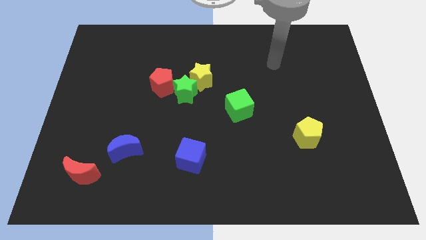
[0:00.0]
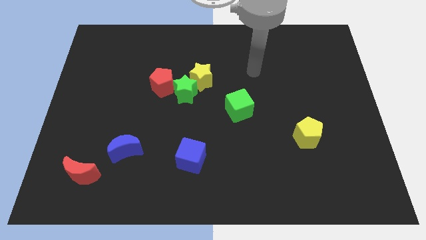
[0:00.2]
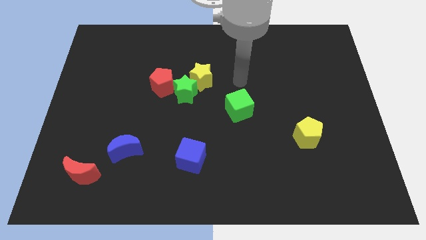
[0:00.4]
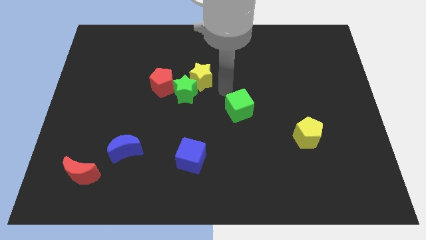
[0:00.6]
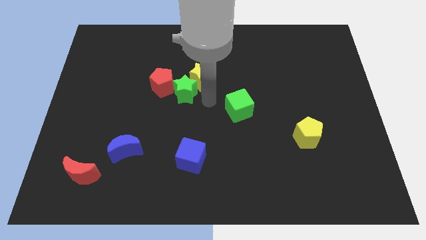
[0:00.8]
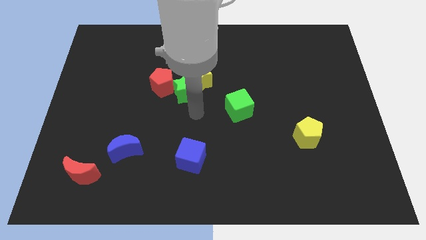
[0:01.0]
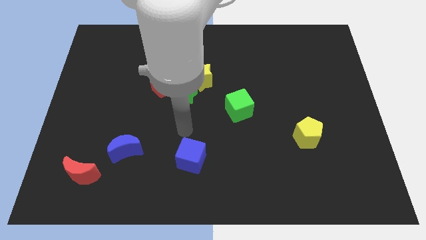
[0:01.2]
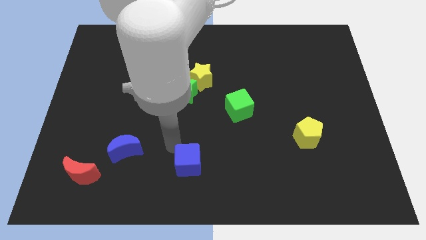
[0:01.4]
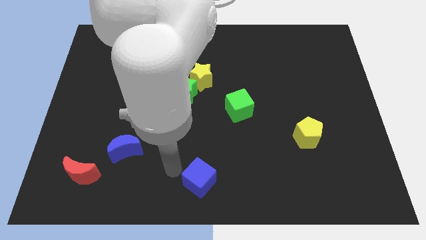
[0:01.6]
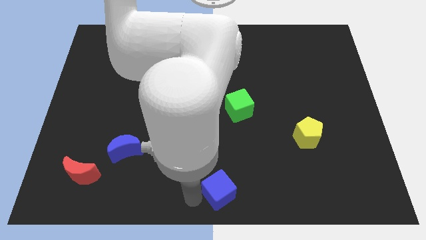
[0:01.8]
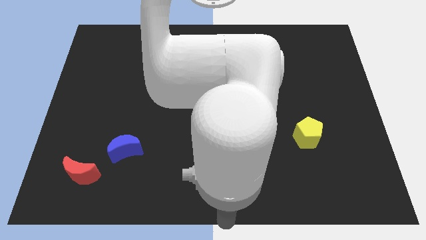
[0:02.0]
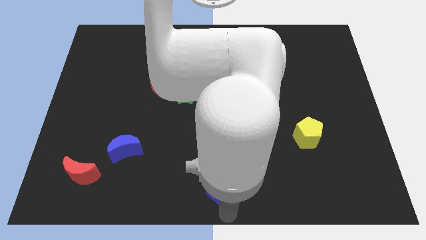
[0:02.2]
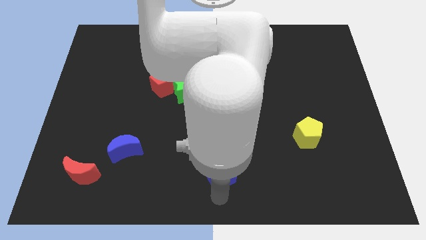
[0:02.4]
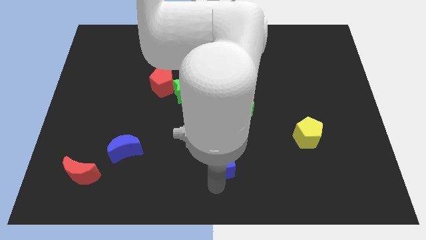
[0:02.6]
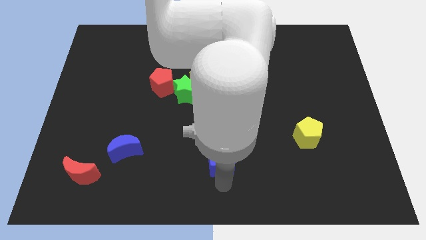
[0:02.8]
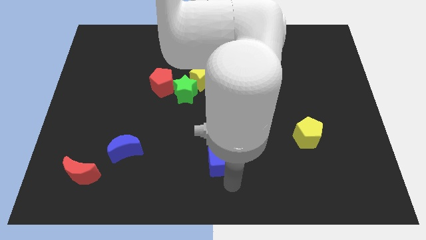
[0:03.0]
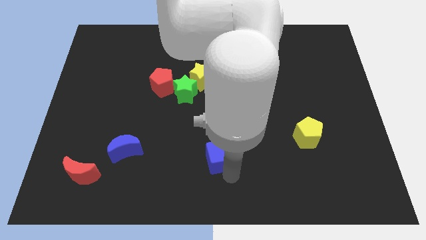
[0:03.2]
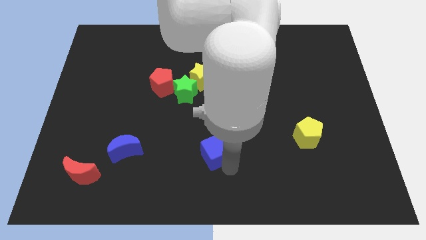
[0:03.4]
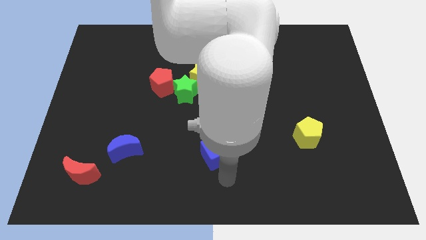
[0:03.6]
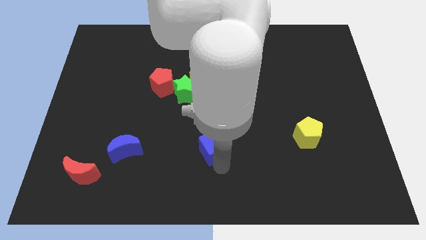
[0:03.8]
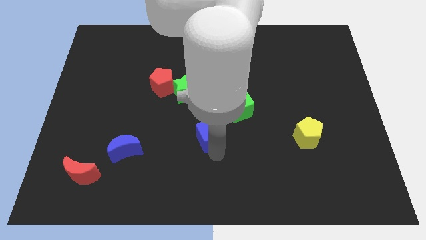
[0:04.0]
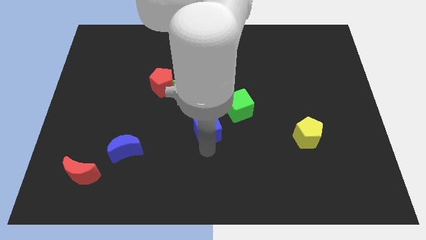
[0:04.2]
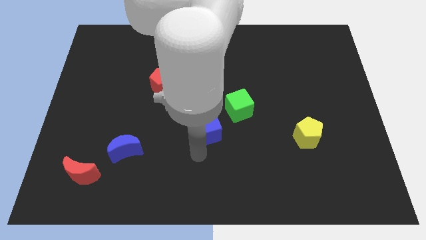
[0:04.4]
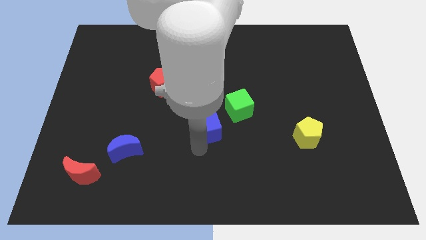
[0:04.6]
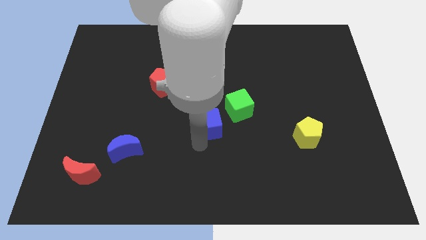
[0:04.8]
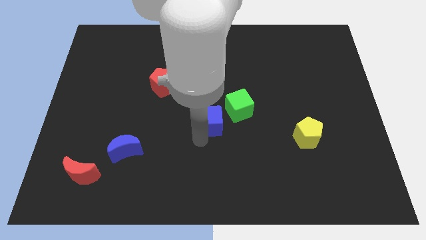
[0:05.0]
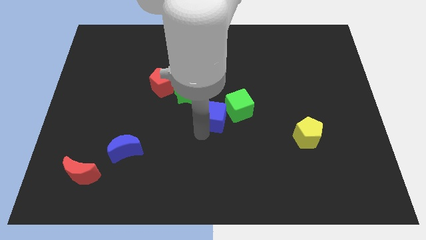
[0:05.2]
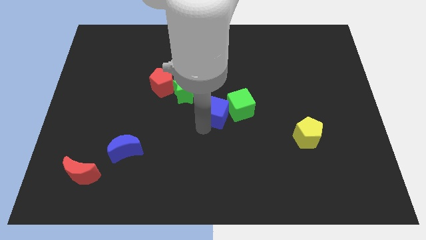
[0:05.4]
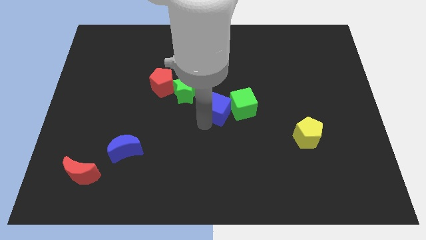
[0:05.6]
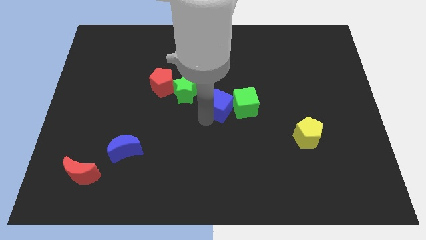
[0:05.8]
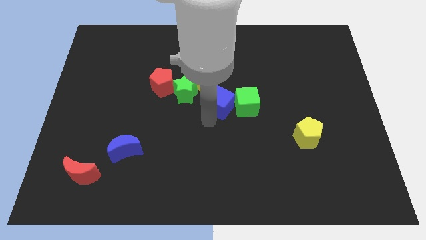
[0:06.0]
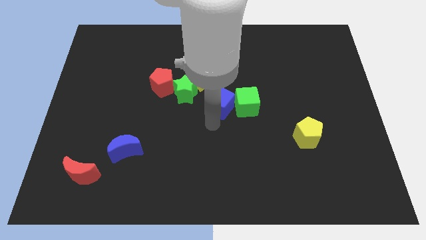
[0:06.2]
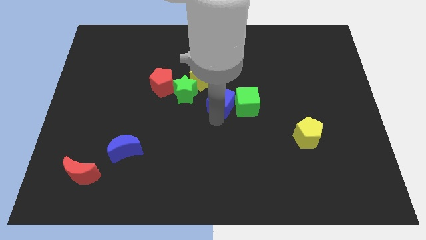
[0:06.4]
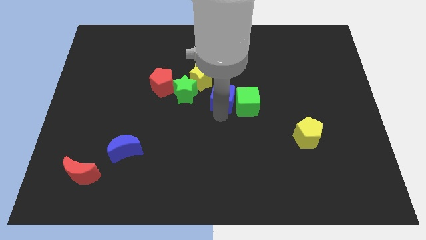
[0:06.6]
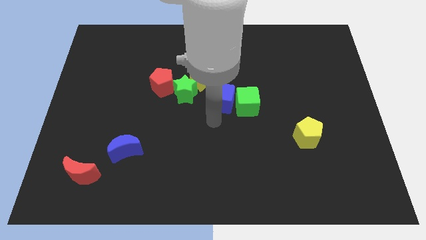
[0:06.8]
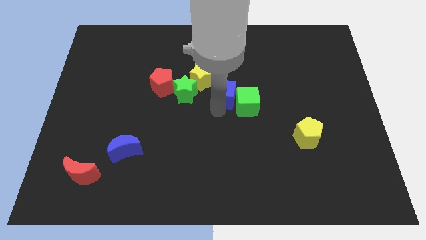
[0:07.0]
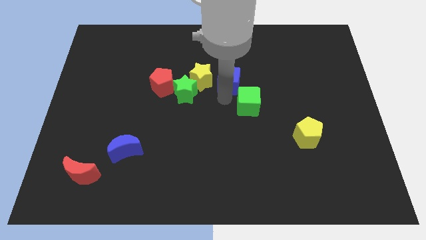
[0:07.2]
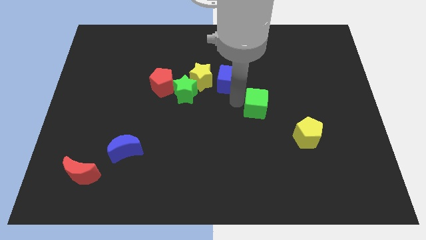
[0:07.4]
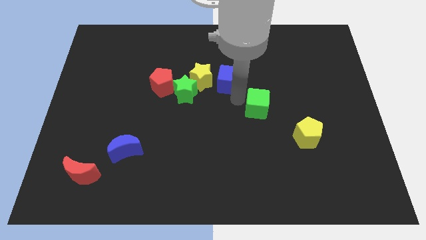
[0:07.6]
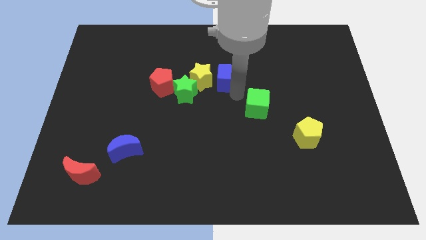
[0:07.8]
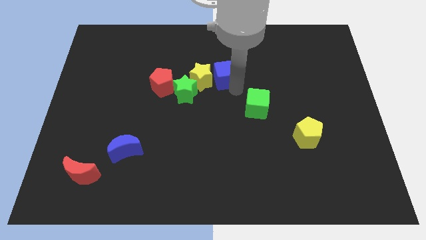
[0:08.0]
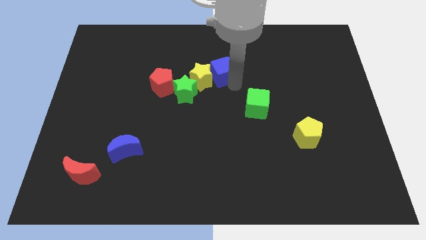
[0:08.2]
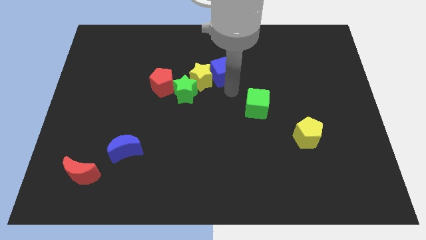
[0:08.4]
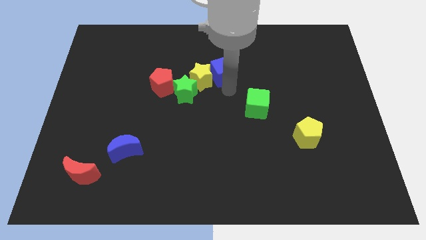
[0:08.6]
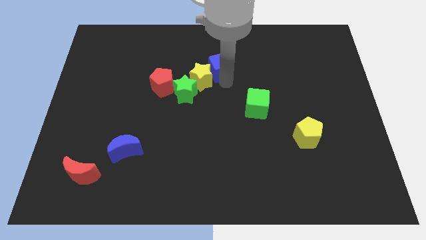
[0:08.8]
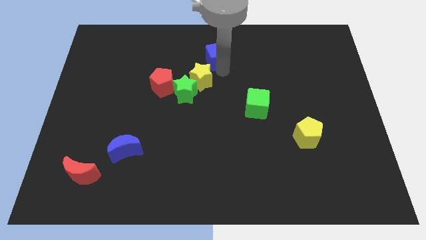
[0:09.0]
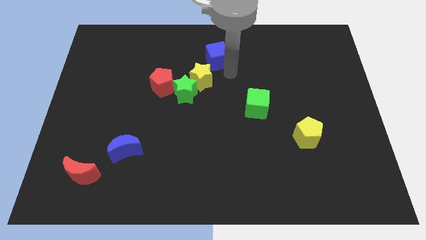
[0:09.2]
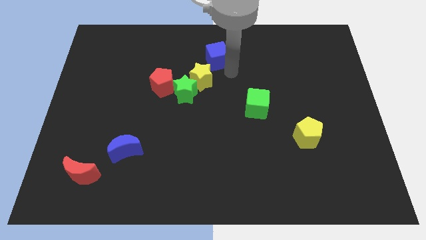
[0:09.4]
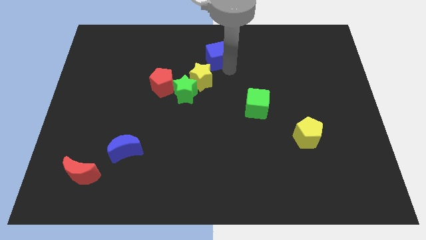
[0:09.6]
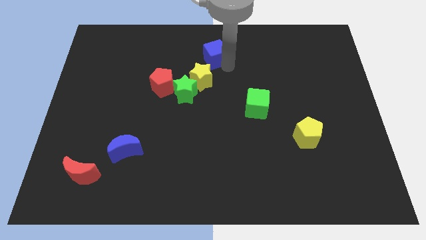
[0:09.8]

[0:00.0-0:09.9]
move the blue cube to the towards your base

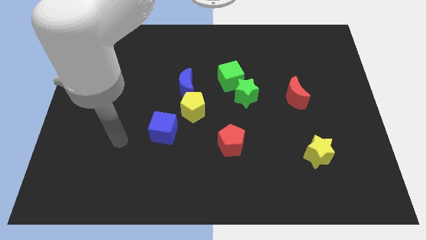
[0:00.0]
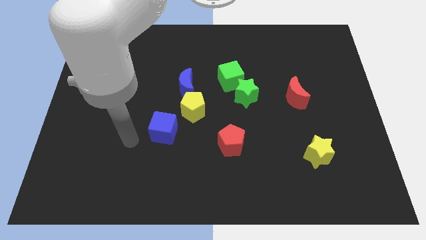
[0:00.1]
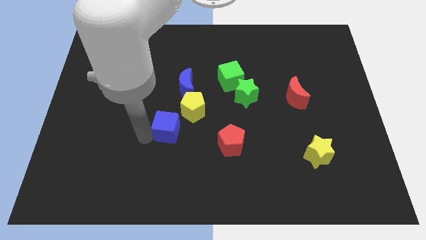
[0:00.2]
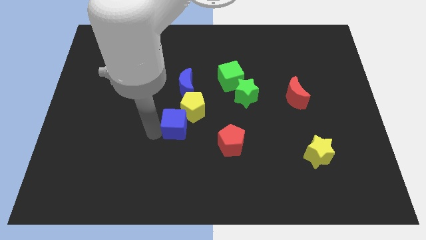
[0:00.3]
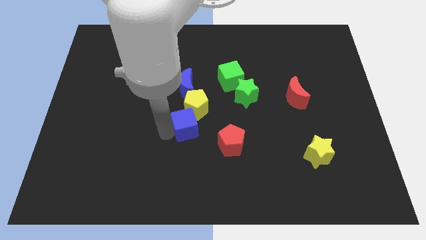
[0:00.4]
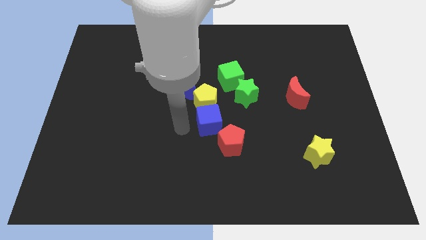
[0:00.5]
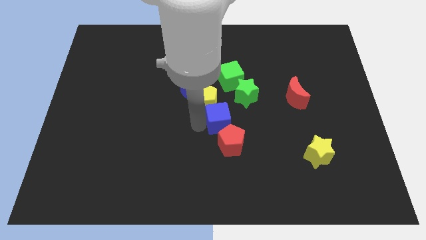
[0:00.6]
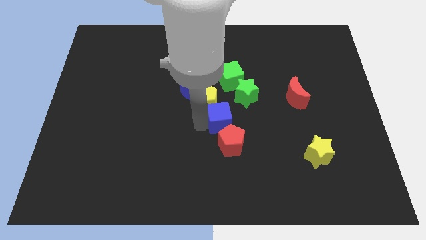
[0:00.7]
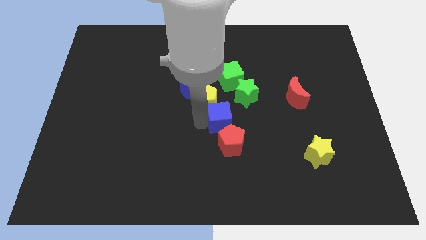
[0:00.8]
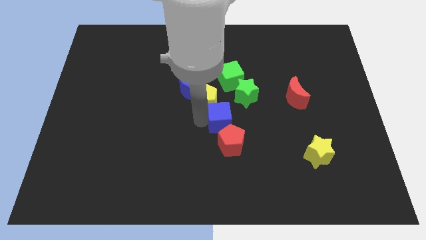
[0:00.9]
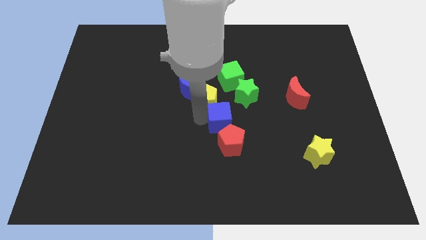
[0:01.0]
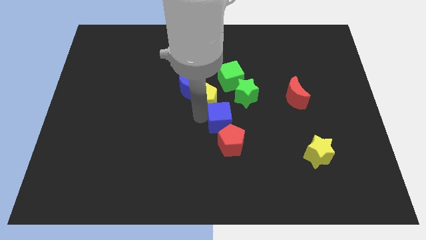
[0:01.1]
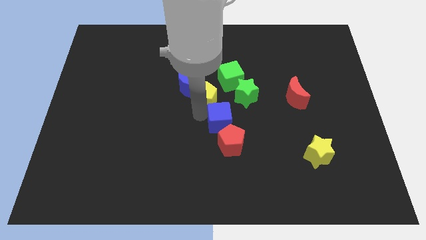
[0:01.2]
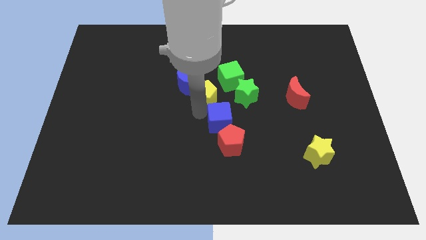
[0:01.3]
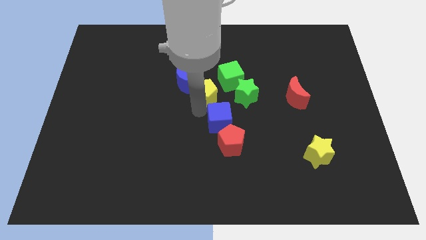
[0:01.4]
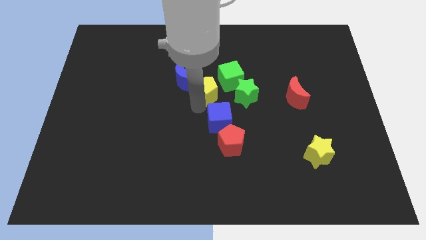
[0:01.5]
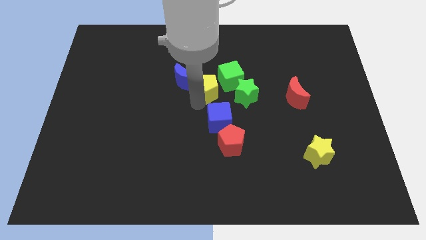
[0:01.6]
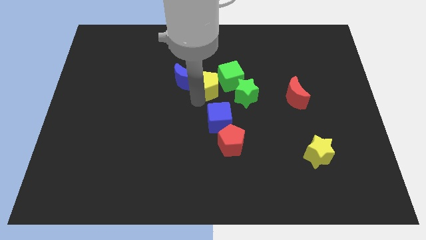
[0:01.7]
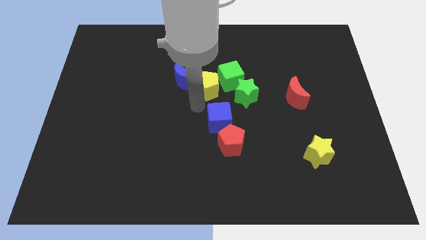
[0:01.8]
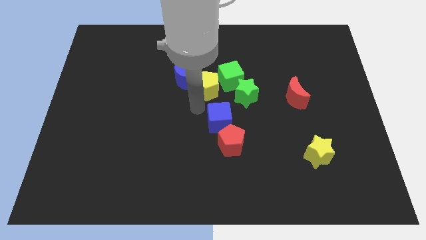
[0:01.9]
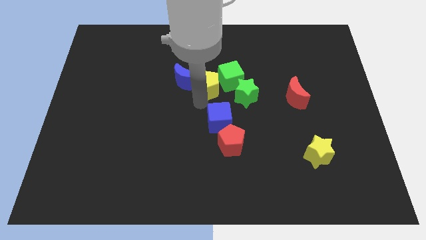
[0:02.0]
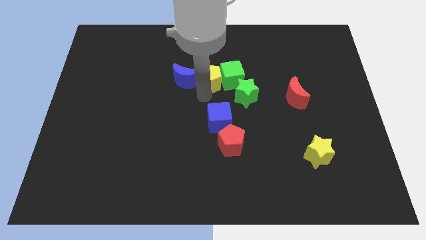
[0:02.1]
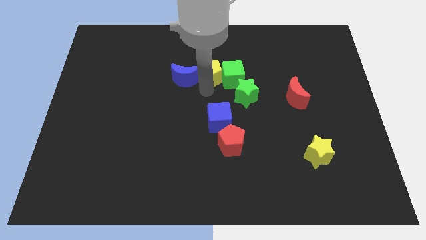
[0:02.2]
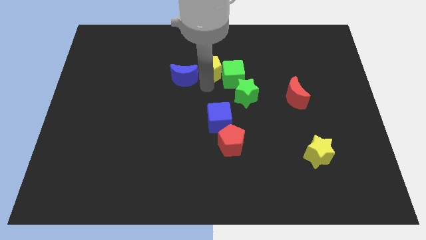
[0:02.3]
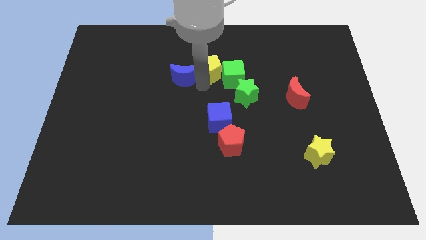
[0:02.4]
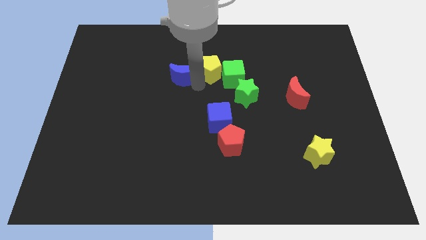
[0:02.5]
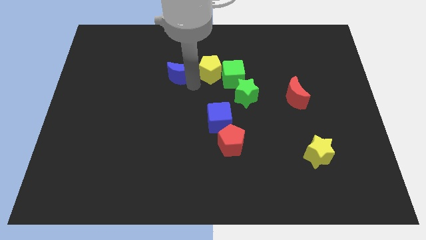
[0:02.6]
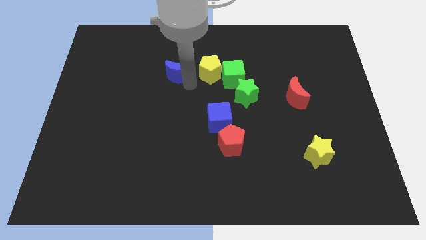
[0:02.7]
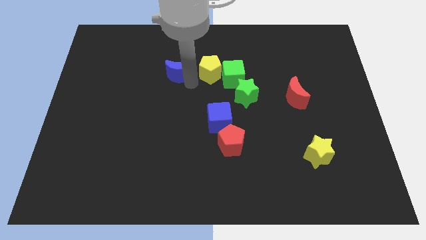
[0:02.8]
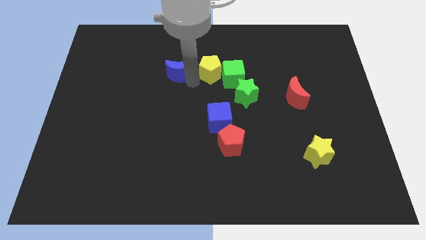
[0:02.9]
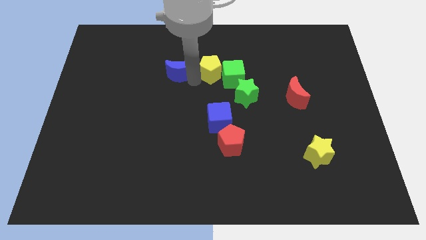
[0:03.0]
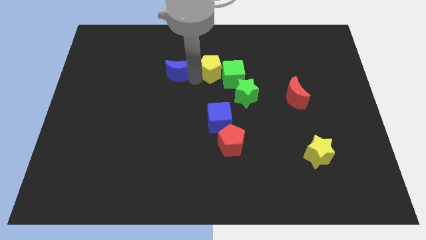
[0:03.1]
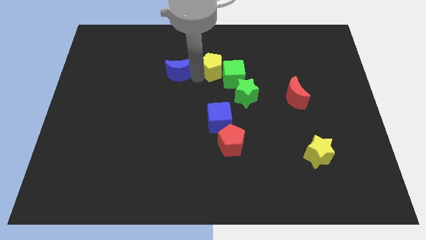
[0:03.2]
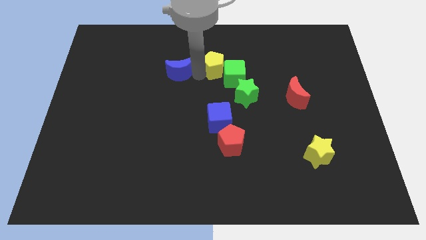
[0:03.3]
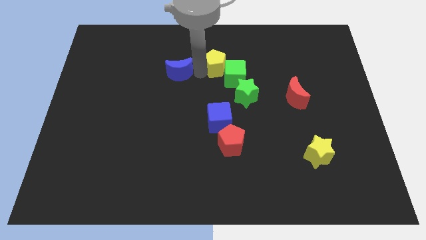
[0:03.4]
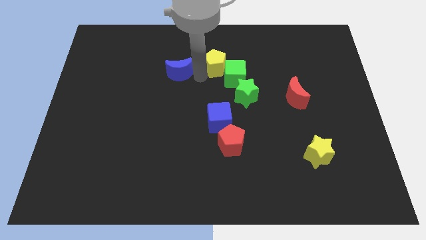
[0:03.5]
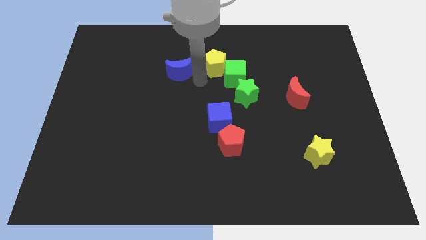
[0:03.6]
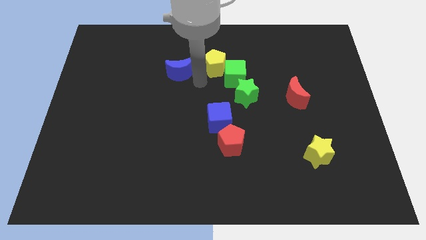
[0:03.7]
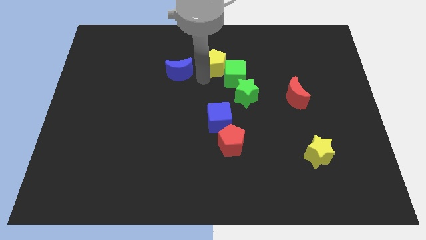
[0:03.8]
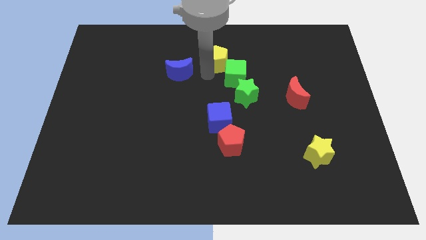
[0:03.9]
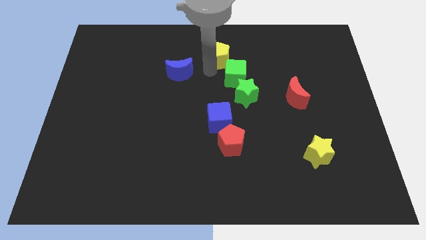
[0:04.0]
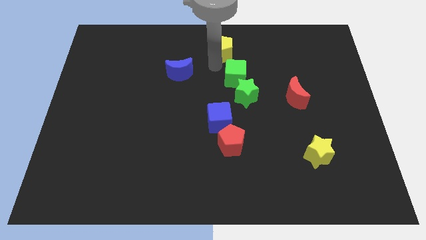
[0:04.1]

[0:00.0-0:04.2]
slide the yellow pentagon to the towards your base
